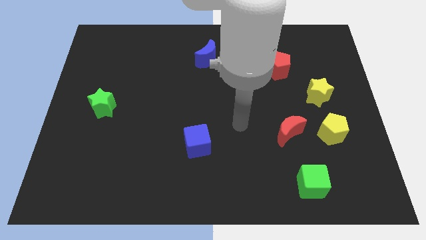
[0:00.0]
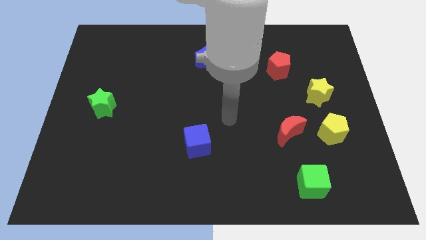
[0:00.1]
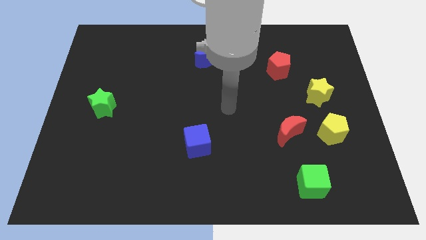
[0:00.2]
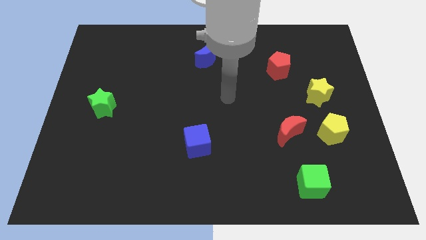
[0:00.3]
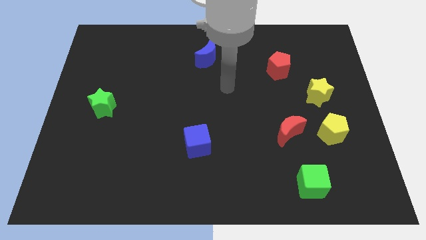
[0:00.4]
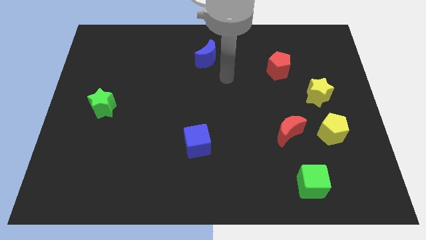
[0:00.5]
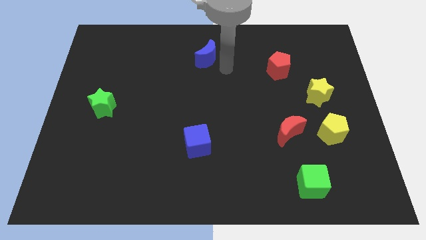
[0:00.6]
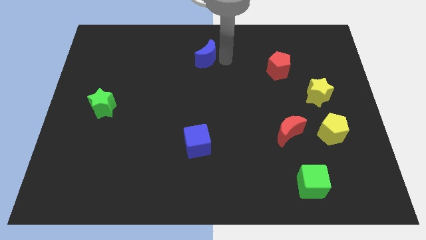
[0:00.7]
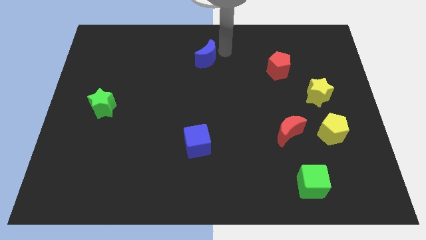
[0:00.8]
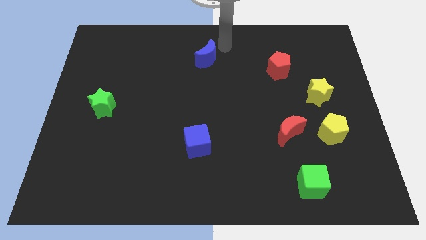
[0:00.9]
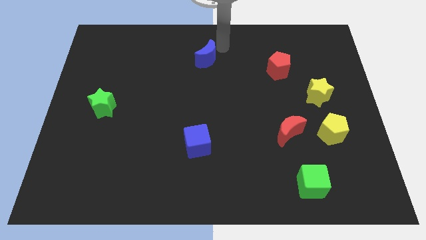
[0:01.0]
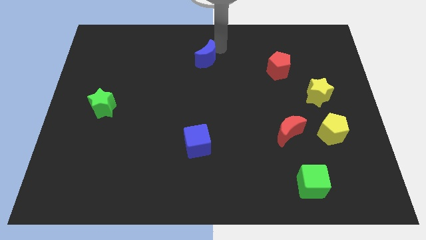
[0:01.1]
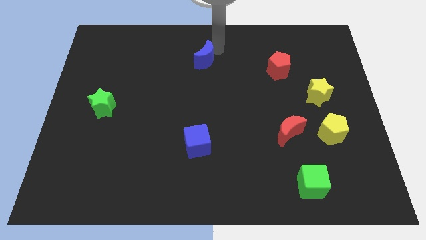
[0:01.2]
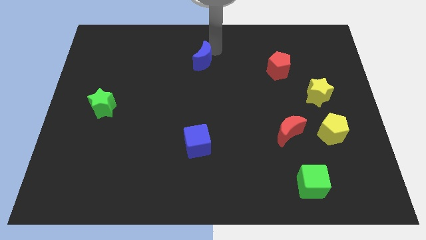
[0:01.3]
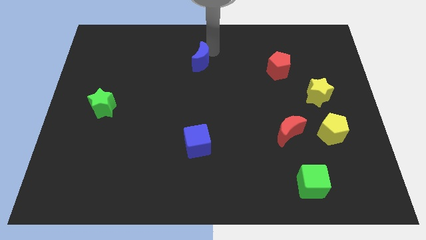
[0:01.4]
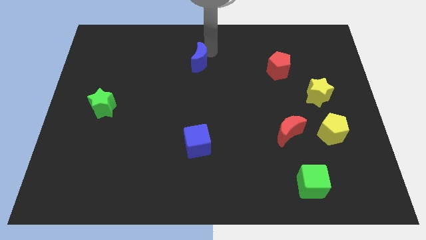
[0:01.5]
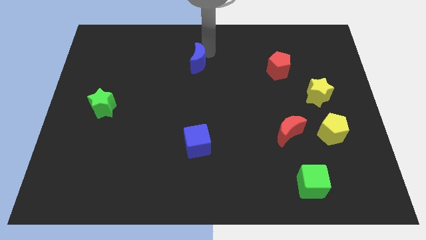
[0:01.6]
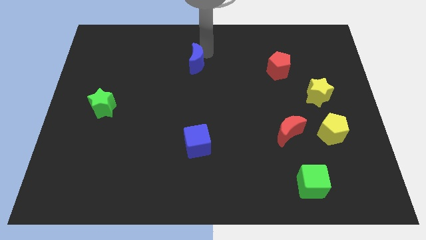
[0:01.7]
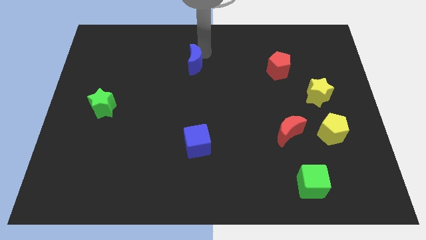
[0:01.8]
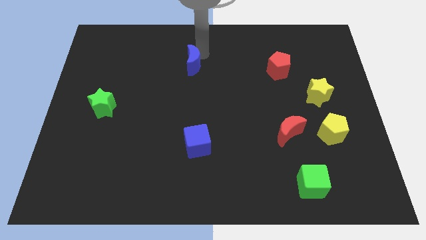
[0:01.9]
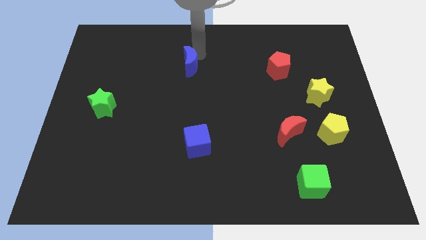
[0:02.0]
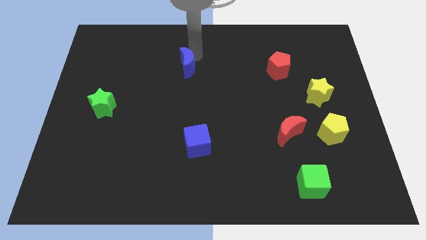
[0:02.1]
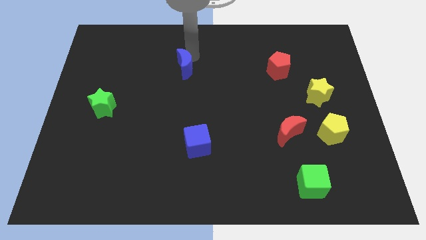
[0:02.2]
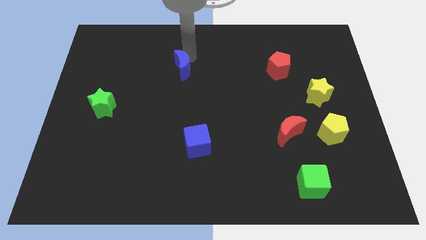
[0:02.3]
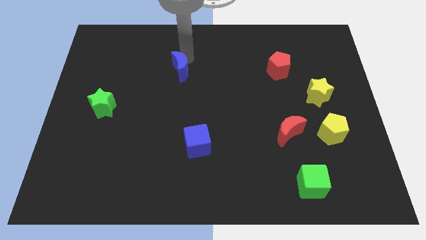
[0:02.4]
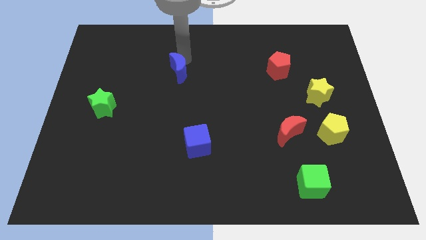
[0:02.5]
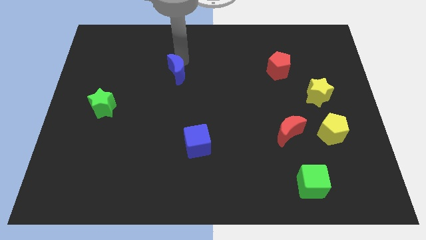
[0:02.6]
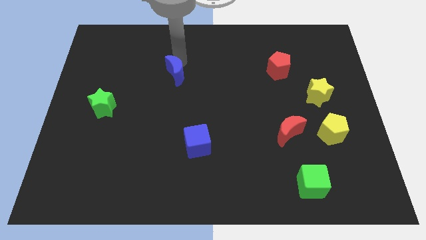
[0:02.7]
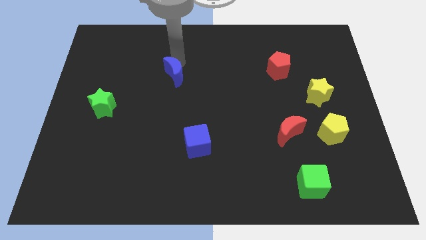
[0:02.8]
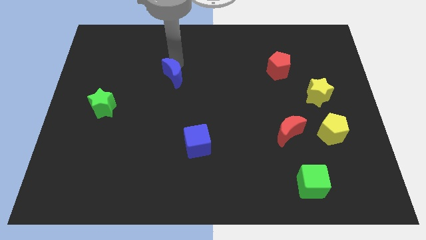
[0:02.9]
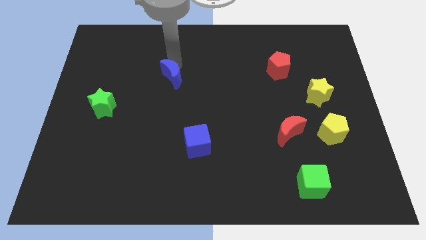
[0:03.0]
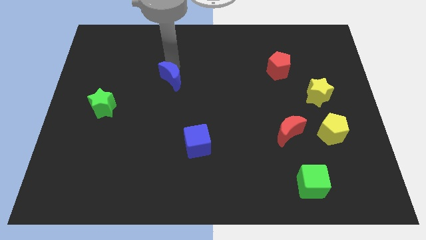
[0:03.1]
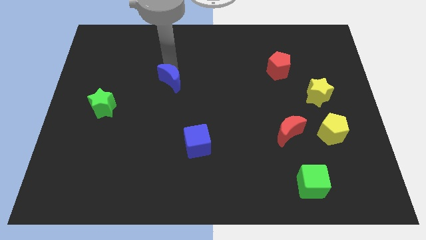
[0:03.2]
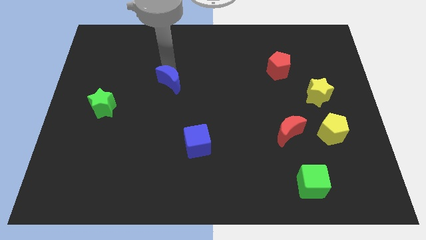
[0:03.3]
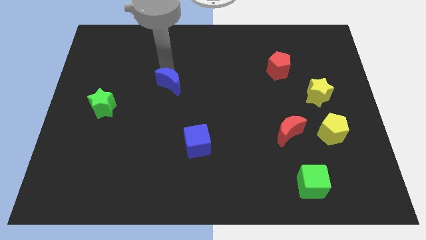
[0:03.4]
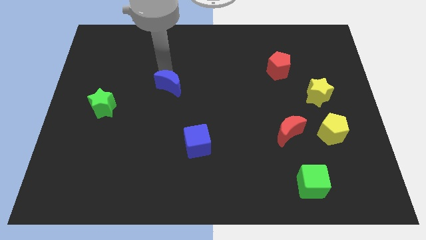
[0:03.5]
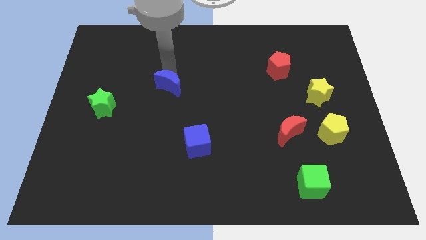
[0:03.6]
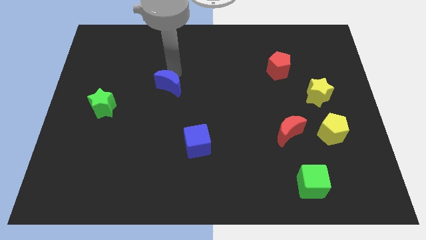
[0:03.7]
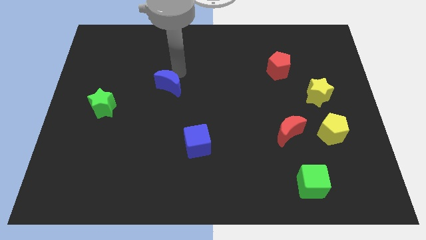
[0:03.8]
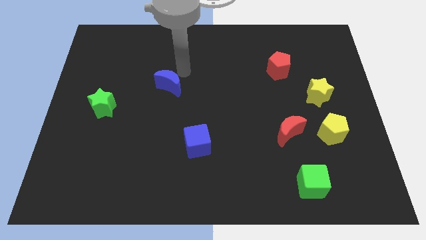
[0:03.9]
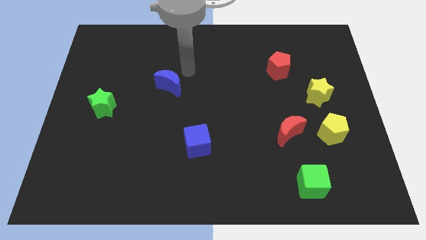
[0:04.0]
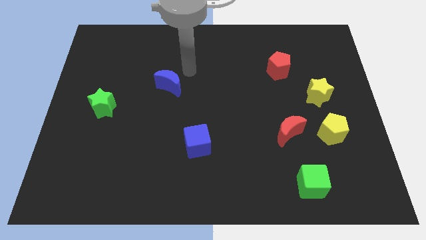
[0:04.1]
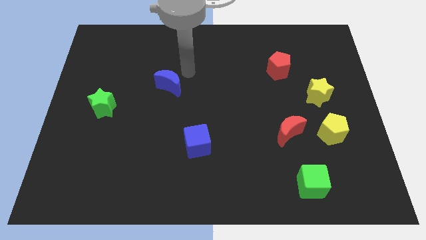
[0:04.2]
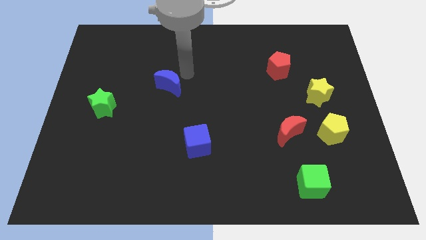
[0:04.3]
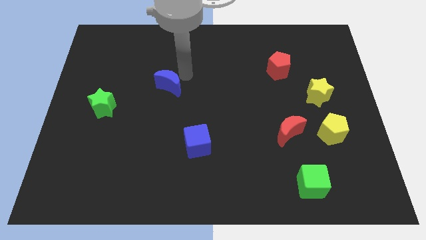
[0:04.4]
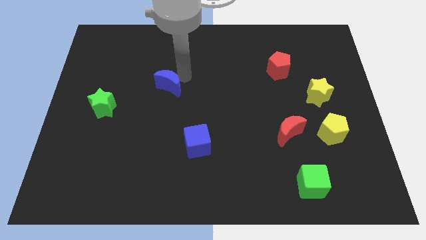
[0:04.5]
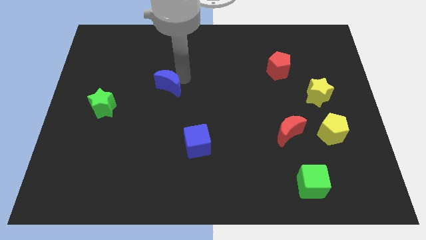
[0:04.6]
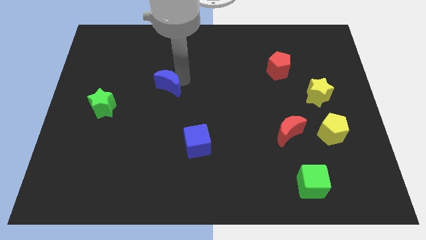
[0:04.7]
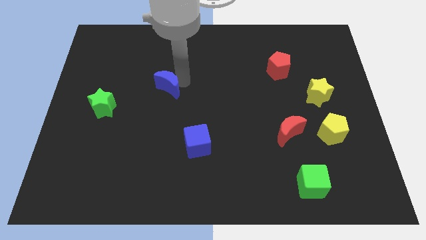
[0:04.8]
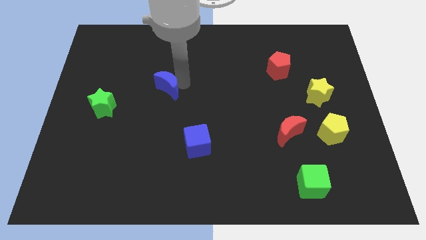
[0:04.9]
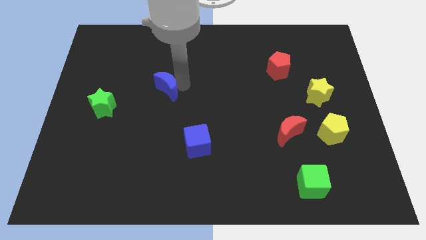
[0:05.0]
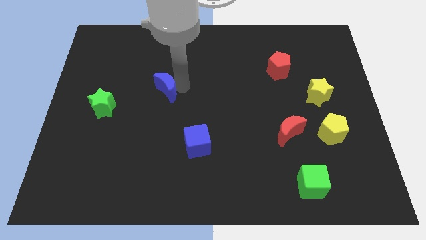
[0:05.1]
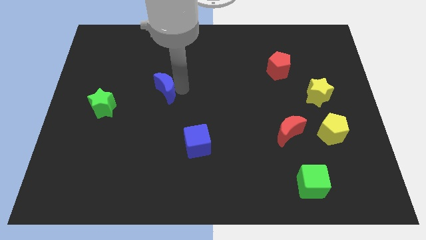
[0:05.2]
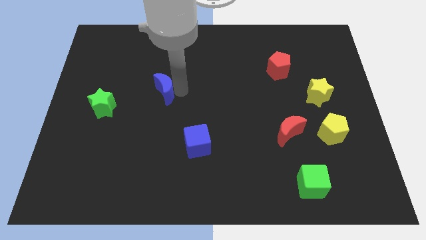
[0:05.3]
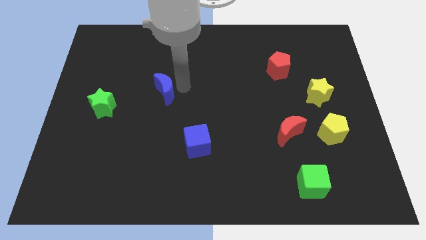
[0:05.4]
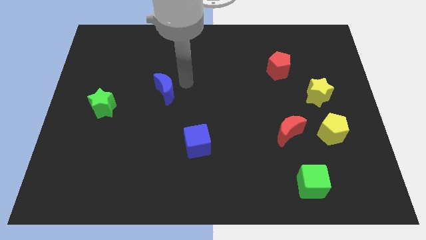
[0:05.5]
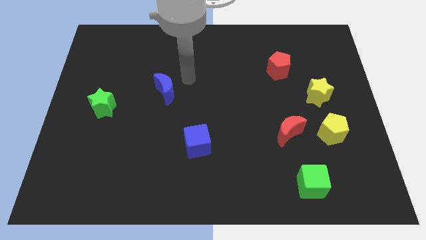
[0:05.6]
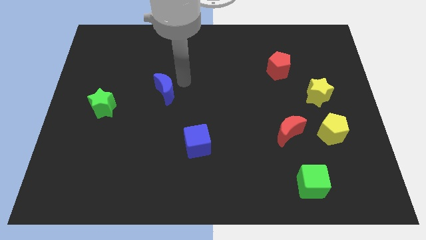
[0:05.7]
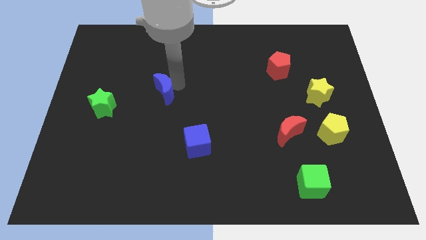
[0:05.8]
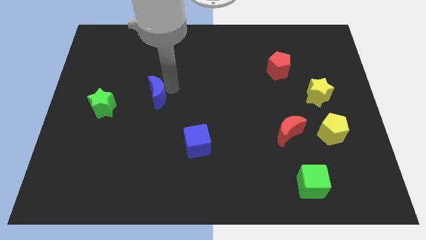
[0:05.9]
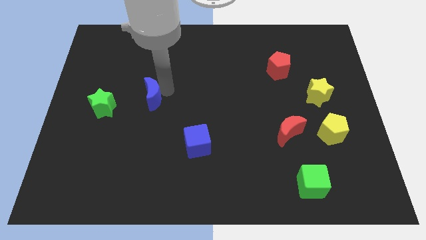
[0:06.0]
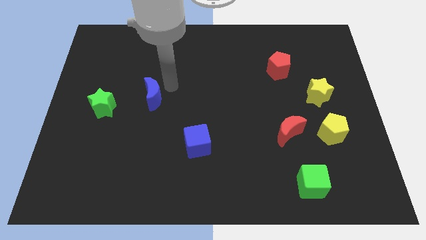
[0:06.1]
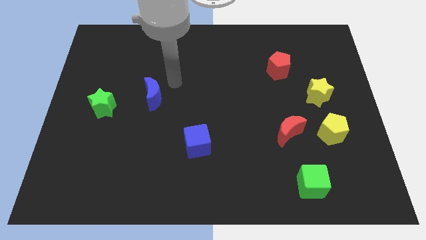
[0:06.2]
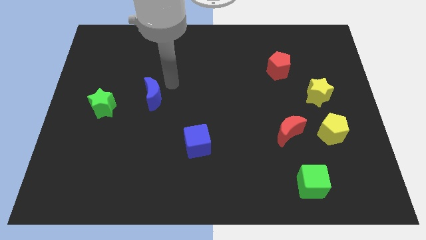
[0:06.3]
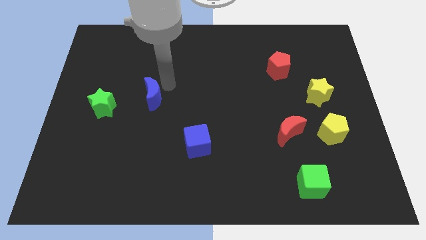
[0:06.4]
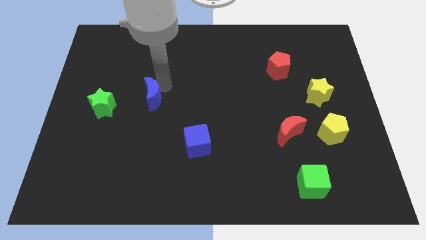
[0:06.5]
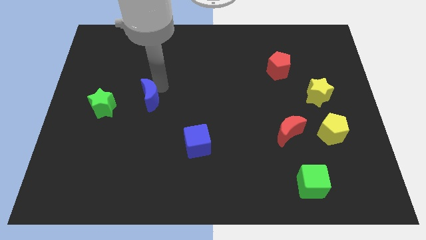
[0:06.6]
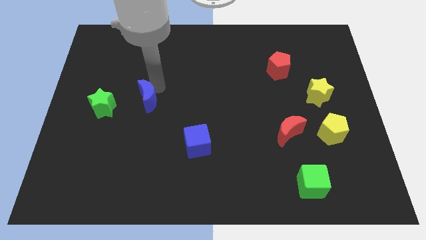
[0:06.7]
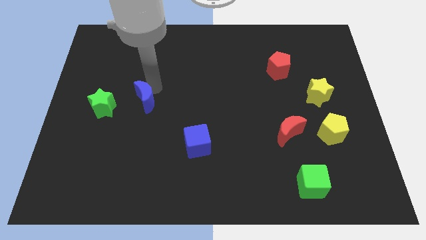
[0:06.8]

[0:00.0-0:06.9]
move the blue moon down and left

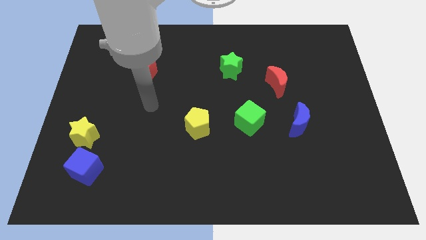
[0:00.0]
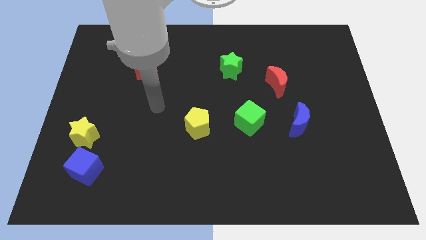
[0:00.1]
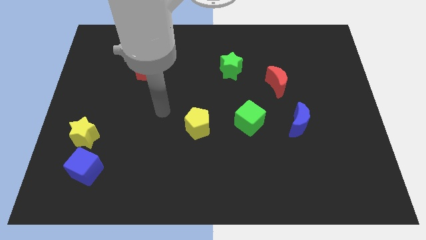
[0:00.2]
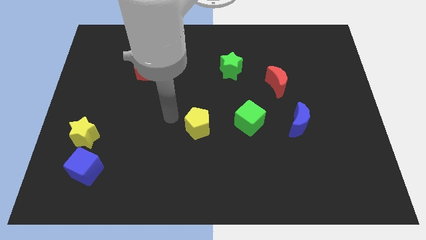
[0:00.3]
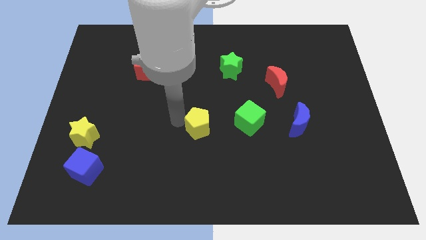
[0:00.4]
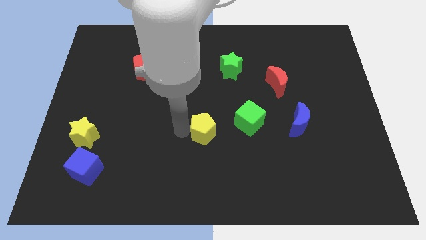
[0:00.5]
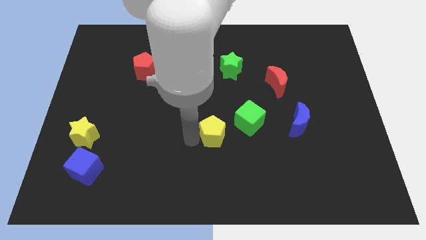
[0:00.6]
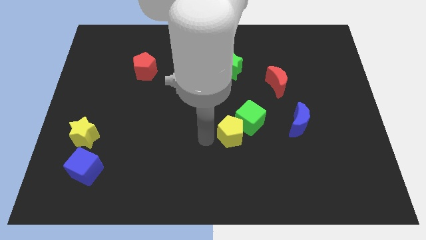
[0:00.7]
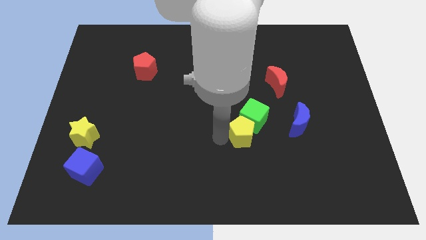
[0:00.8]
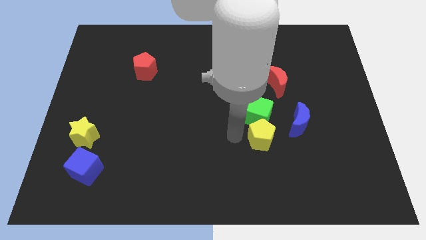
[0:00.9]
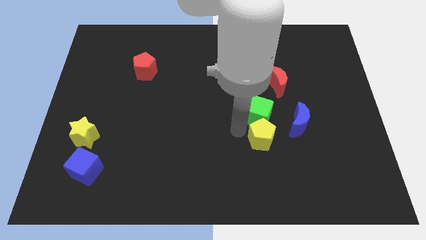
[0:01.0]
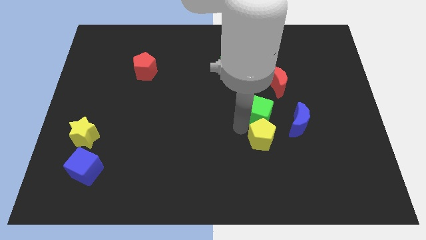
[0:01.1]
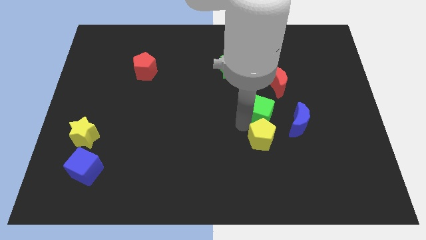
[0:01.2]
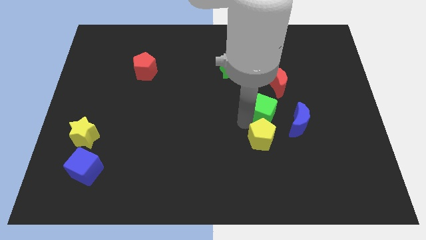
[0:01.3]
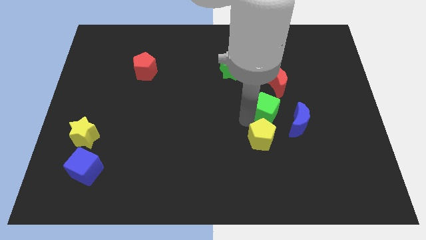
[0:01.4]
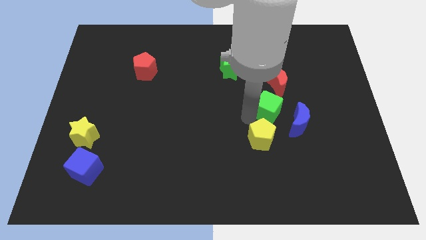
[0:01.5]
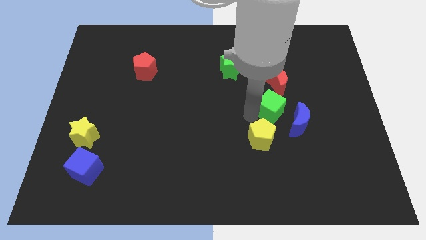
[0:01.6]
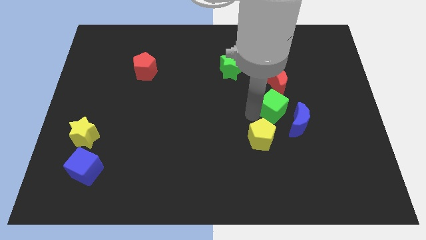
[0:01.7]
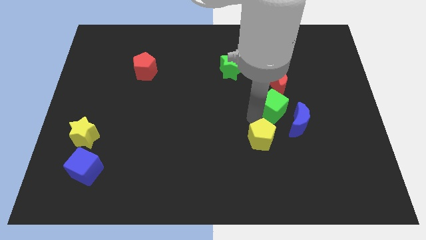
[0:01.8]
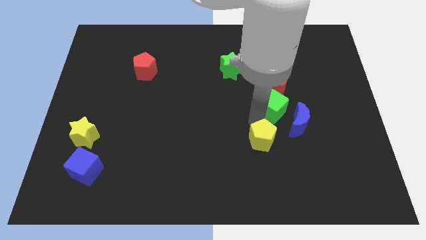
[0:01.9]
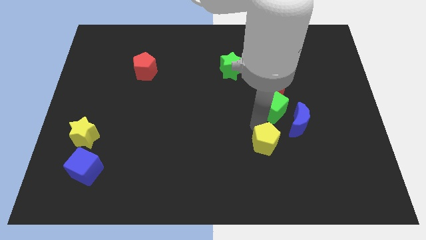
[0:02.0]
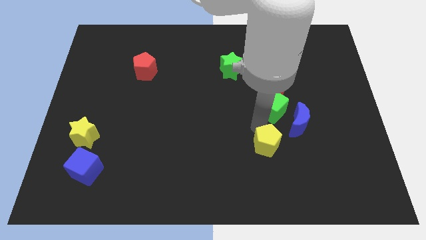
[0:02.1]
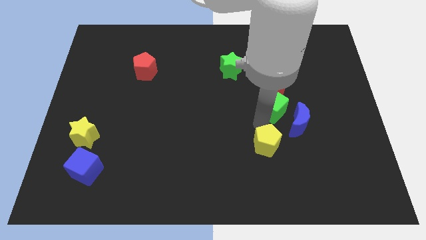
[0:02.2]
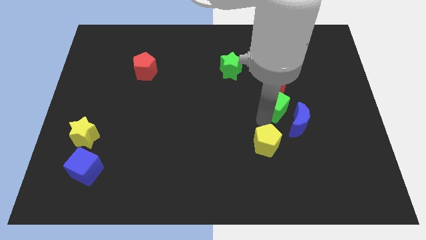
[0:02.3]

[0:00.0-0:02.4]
slide the green cube up and right diagonally somewhat
